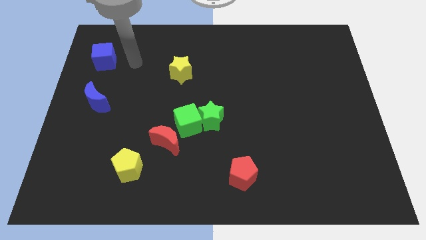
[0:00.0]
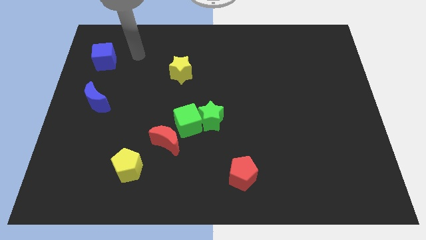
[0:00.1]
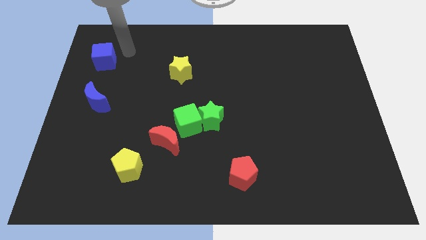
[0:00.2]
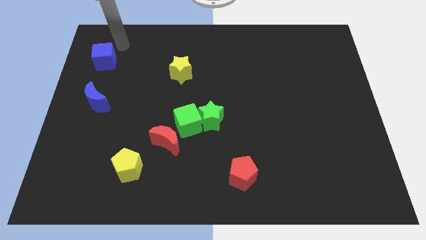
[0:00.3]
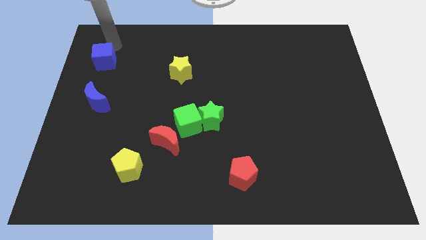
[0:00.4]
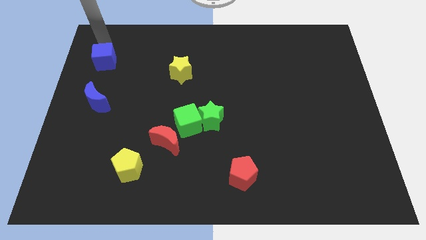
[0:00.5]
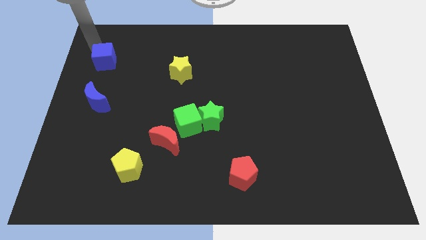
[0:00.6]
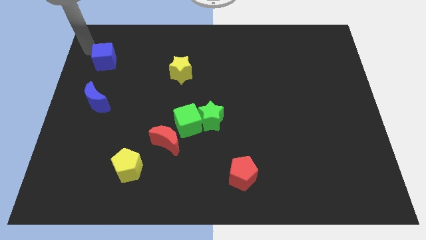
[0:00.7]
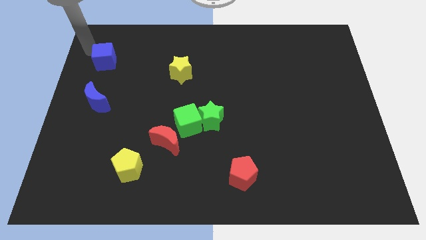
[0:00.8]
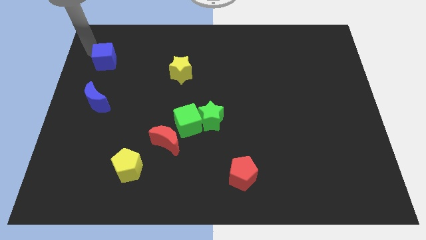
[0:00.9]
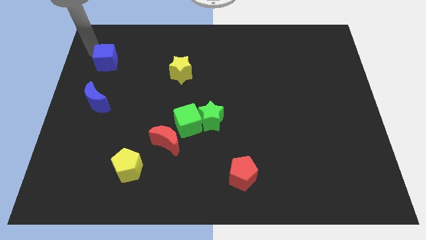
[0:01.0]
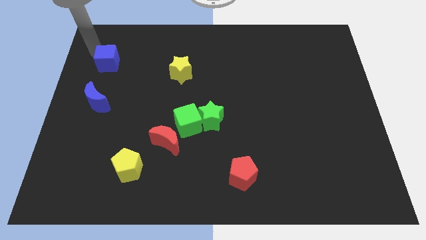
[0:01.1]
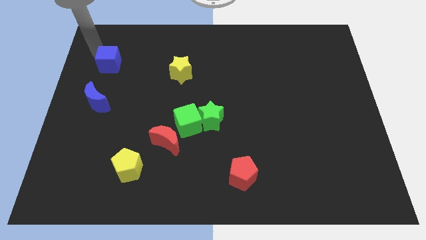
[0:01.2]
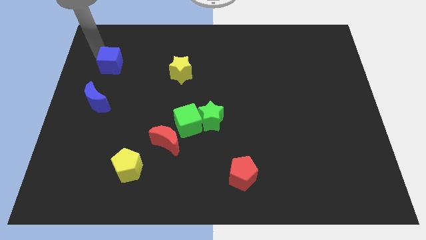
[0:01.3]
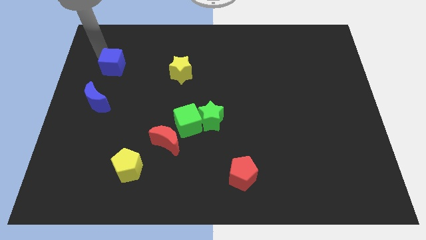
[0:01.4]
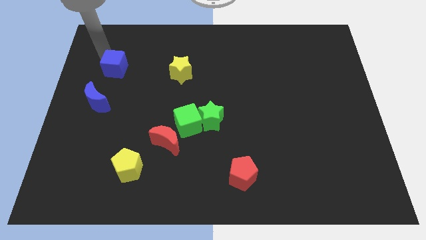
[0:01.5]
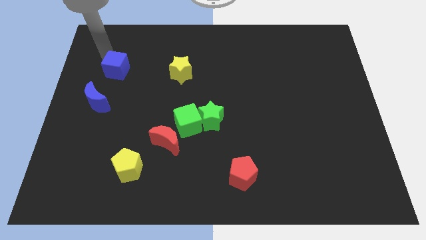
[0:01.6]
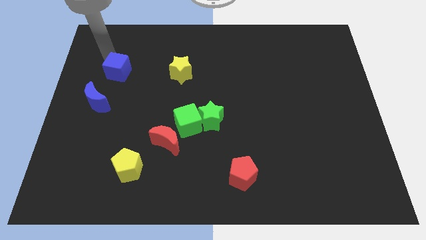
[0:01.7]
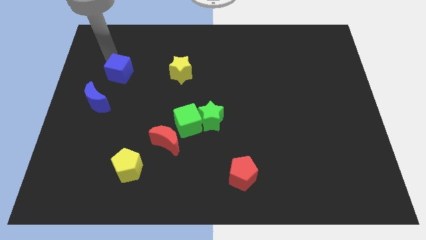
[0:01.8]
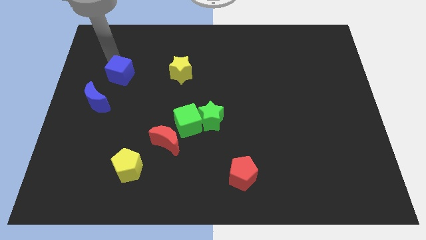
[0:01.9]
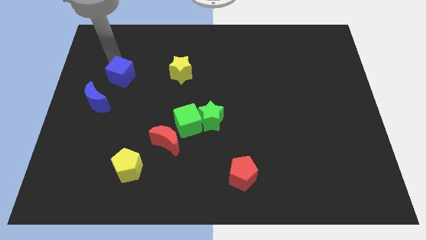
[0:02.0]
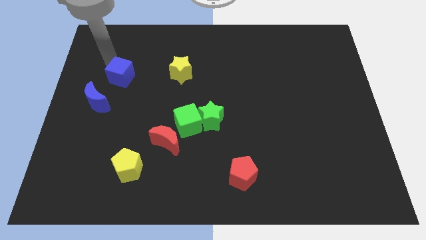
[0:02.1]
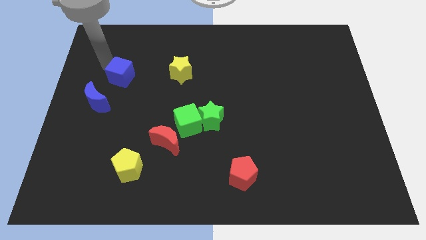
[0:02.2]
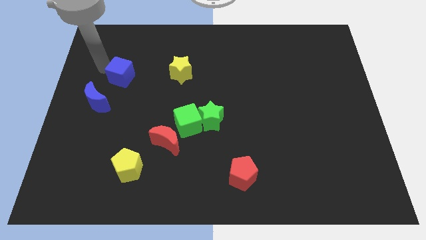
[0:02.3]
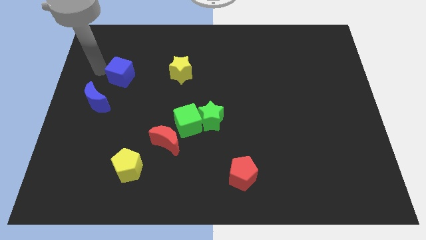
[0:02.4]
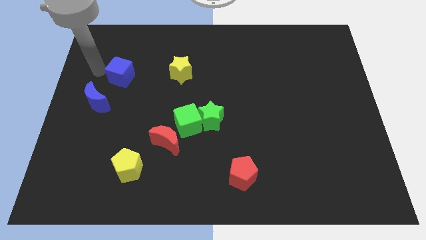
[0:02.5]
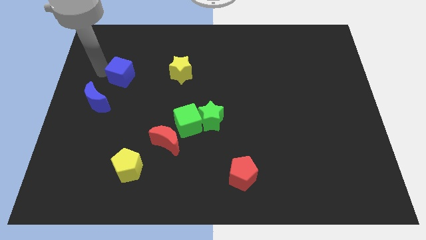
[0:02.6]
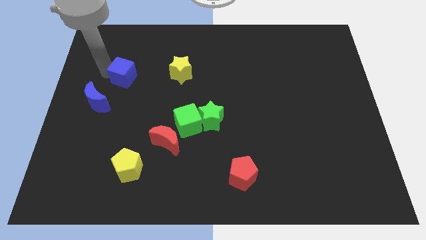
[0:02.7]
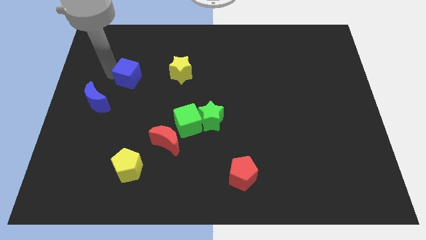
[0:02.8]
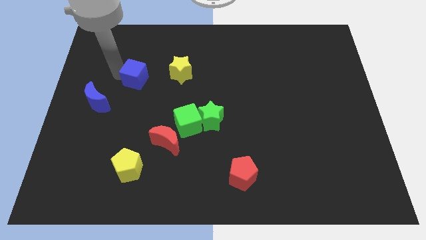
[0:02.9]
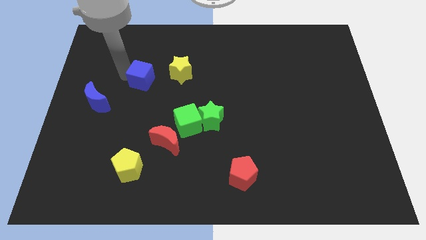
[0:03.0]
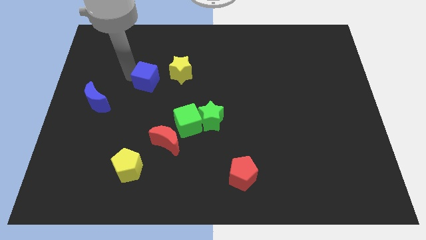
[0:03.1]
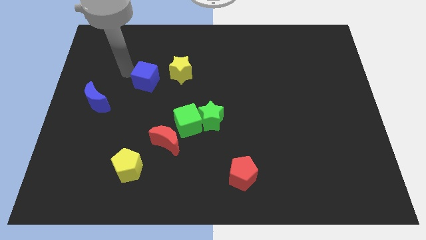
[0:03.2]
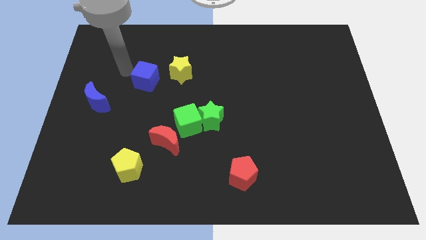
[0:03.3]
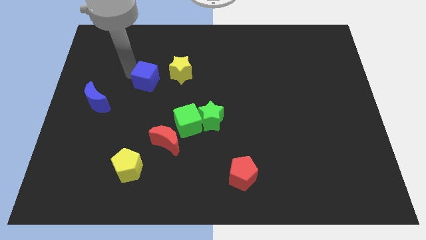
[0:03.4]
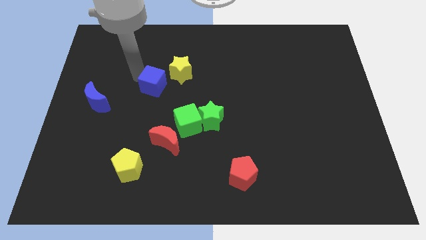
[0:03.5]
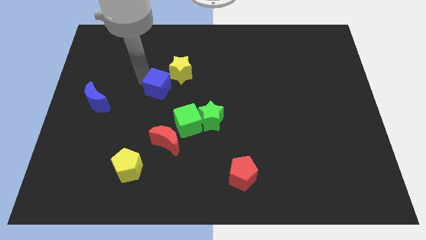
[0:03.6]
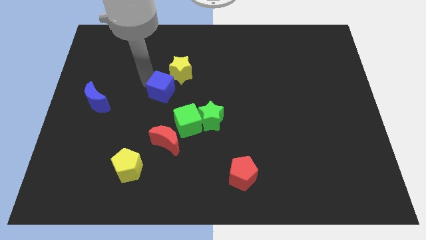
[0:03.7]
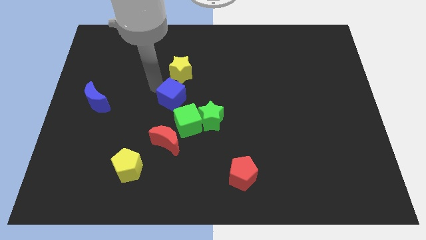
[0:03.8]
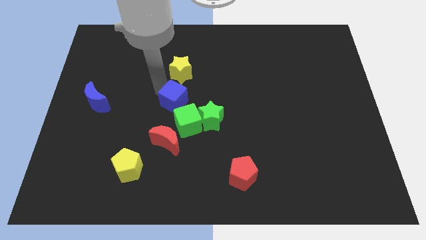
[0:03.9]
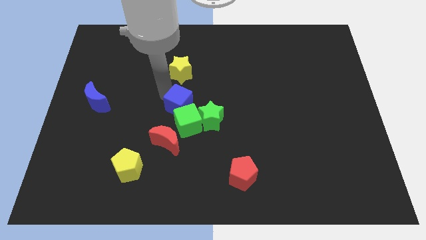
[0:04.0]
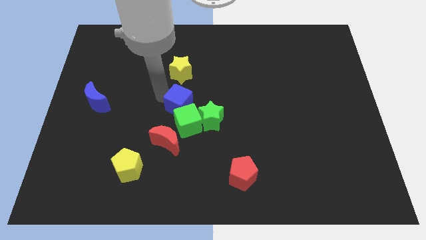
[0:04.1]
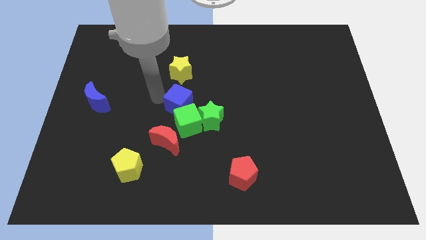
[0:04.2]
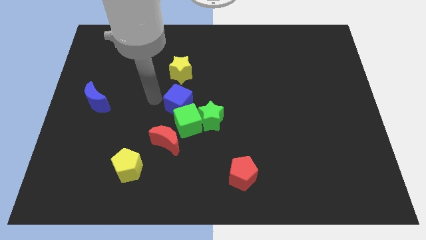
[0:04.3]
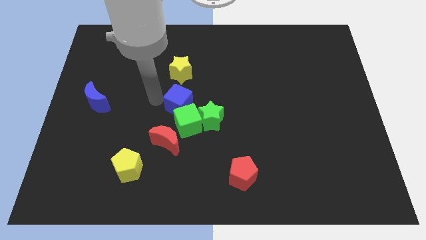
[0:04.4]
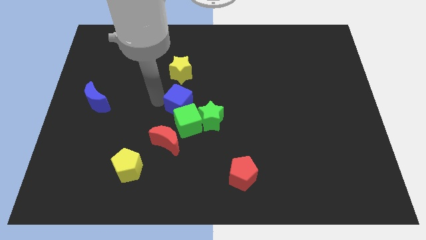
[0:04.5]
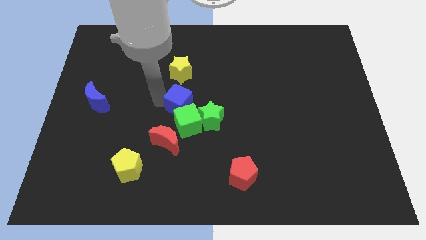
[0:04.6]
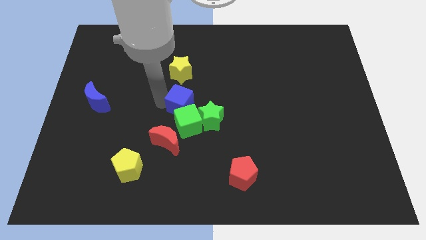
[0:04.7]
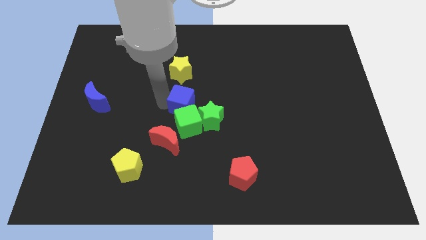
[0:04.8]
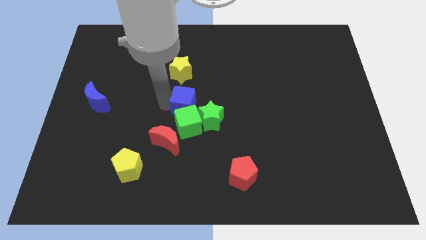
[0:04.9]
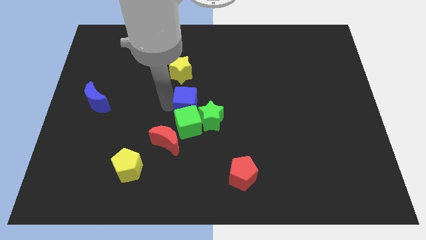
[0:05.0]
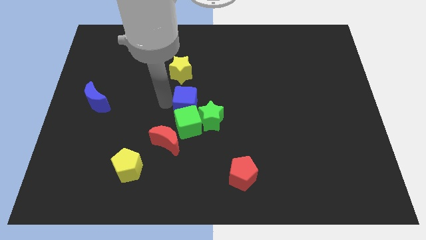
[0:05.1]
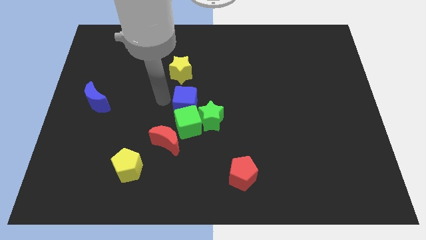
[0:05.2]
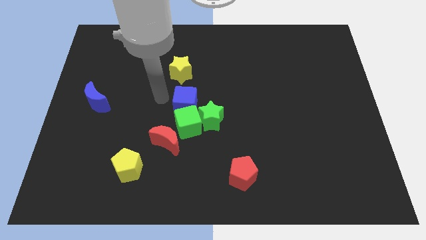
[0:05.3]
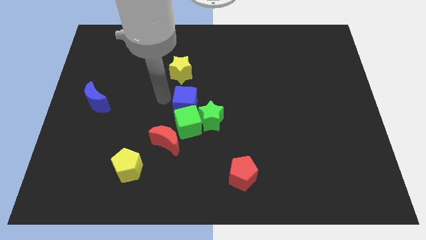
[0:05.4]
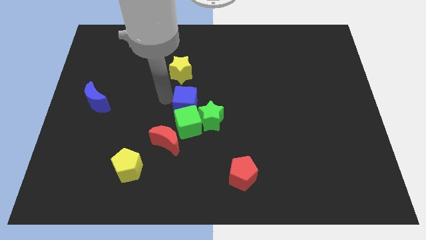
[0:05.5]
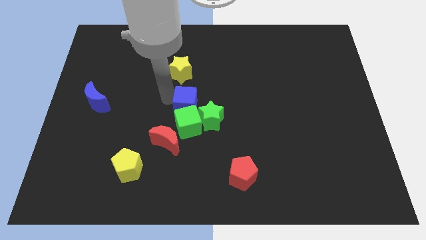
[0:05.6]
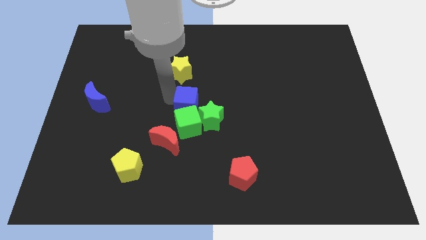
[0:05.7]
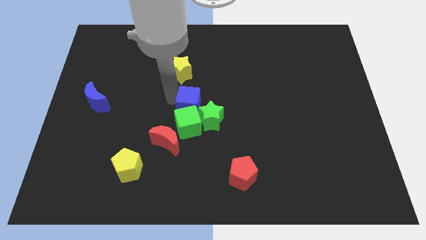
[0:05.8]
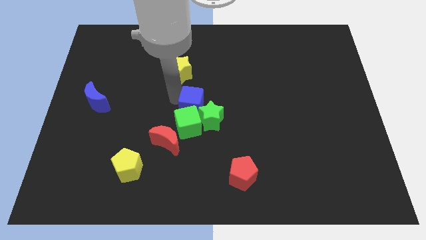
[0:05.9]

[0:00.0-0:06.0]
slide the blue cube towards the green star

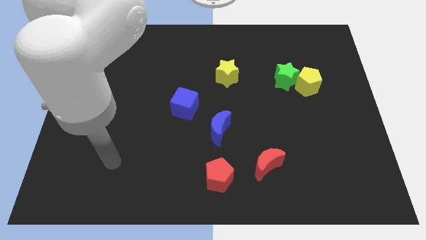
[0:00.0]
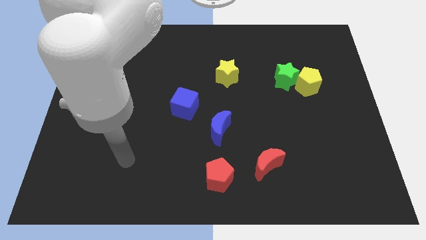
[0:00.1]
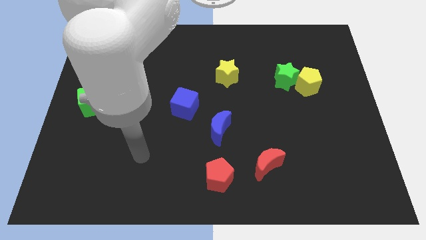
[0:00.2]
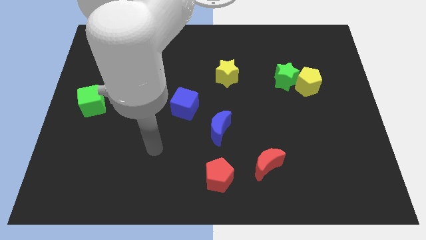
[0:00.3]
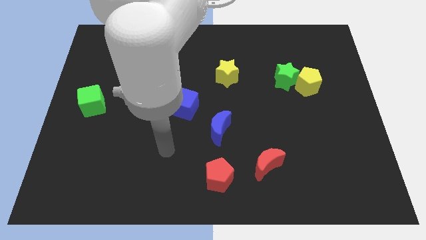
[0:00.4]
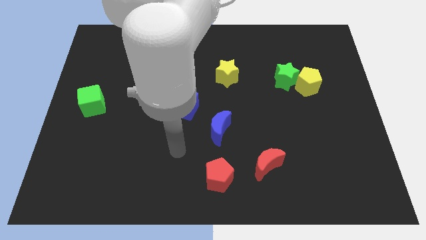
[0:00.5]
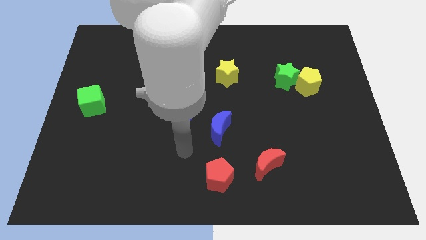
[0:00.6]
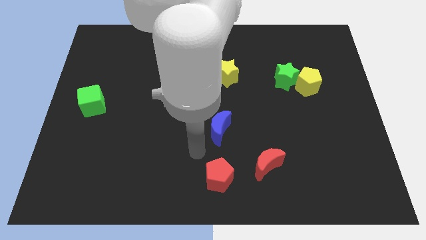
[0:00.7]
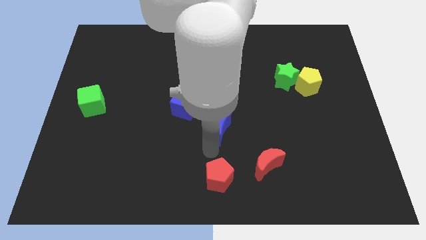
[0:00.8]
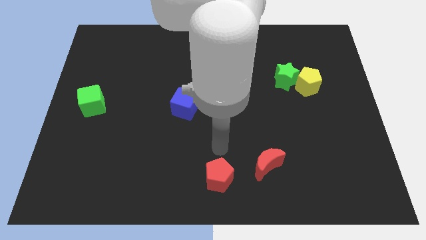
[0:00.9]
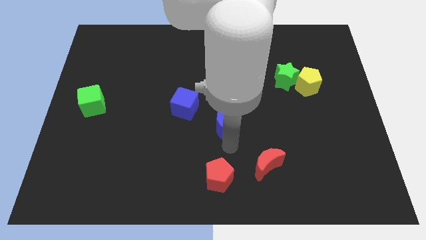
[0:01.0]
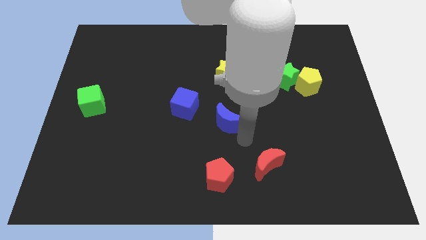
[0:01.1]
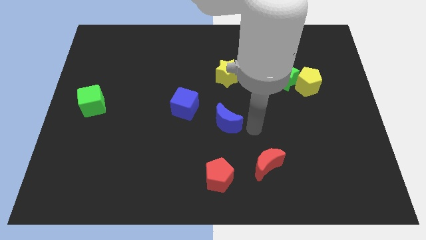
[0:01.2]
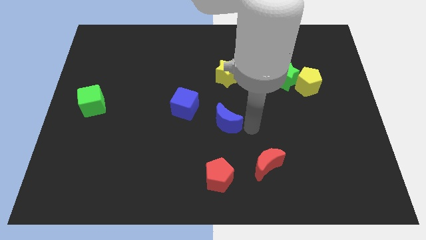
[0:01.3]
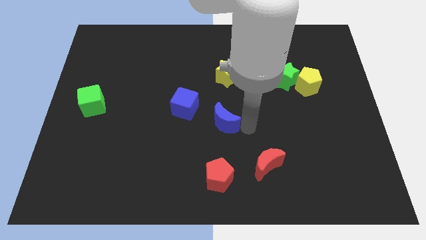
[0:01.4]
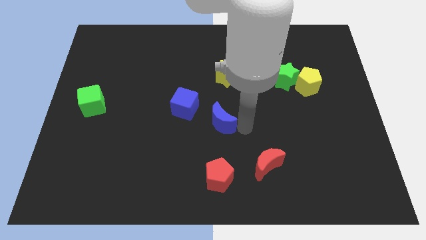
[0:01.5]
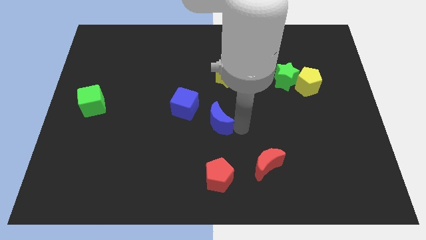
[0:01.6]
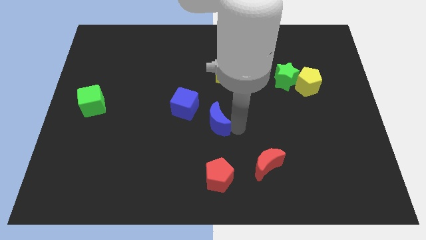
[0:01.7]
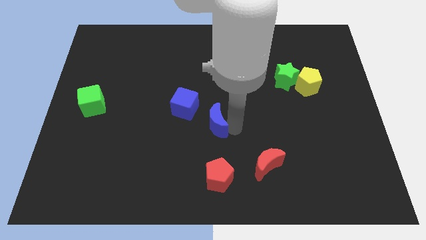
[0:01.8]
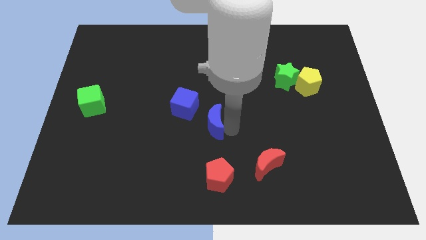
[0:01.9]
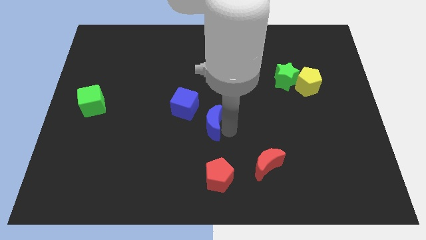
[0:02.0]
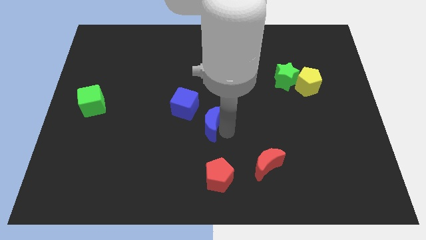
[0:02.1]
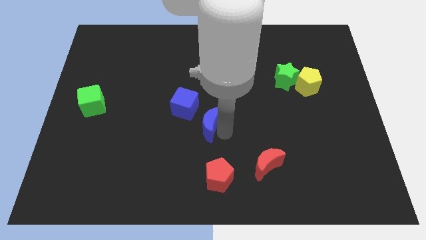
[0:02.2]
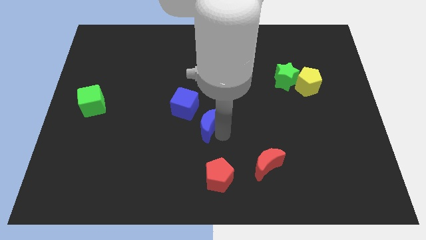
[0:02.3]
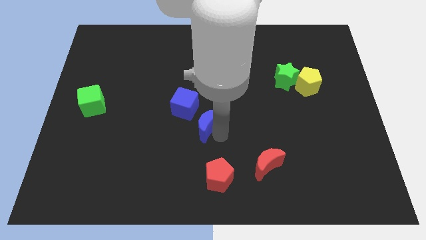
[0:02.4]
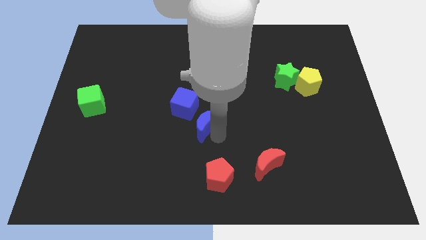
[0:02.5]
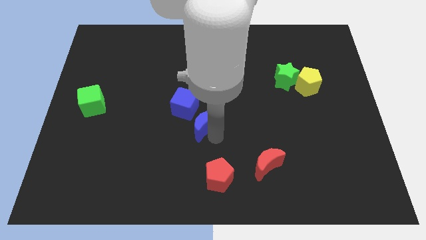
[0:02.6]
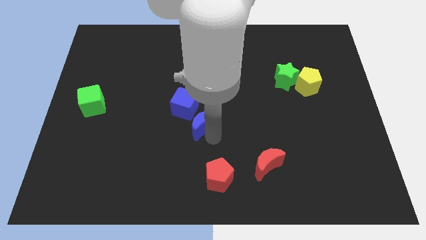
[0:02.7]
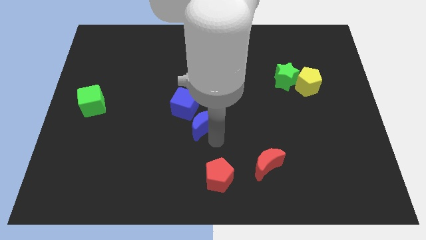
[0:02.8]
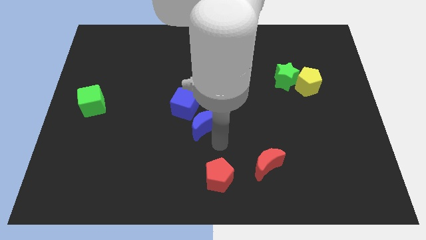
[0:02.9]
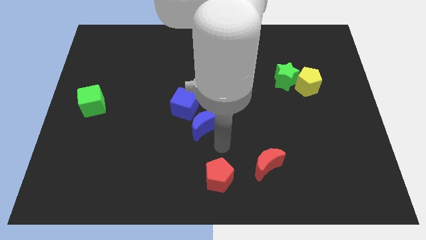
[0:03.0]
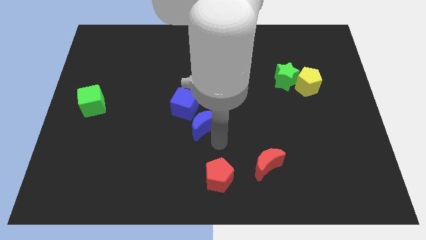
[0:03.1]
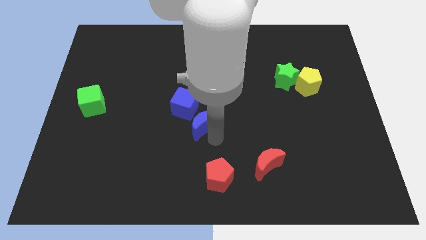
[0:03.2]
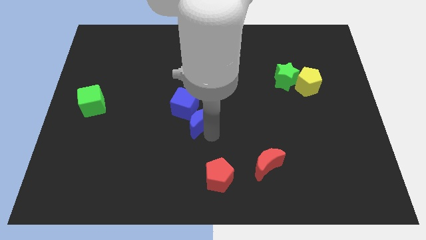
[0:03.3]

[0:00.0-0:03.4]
slide the blue moon next to the blue cube
